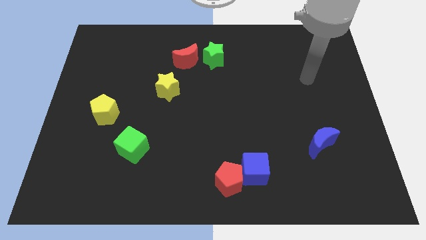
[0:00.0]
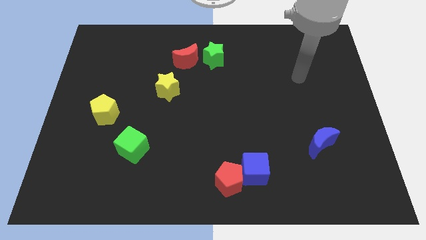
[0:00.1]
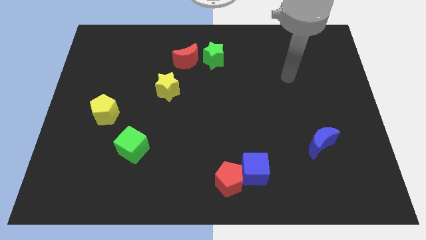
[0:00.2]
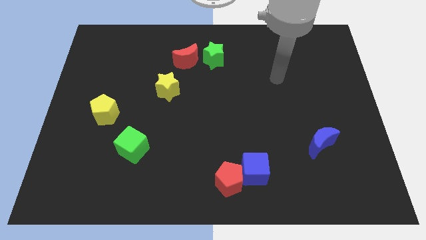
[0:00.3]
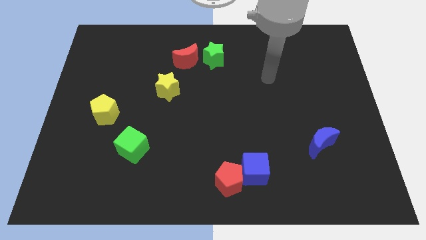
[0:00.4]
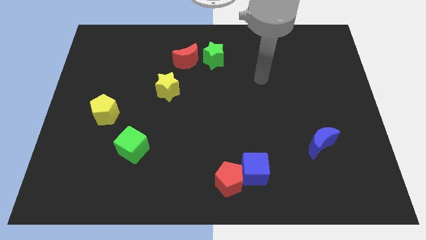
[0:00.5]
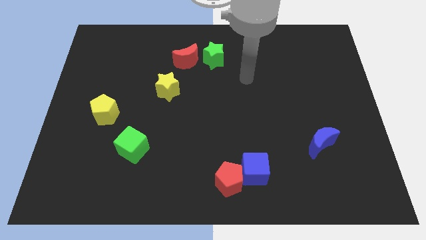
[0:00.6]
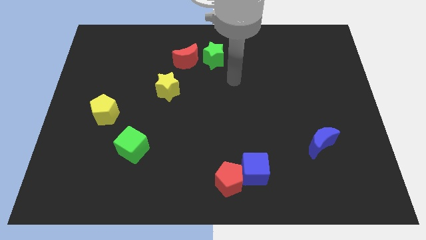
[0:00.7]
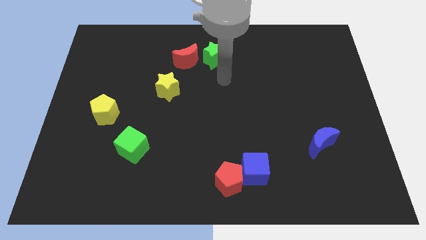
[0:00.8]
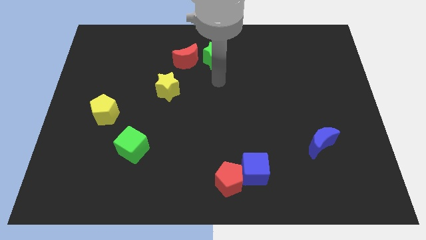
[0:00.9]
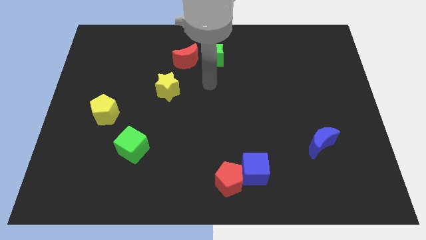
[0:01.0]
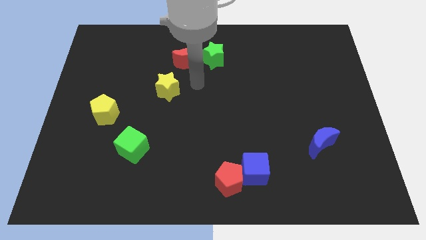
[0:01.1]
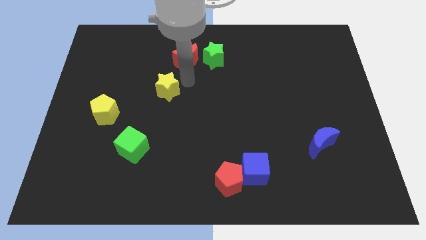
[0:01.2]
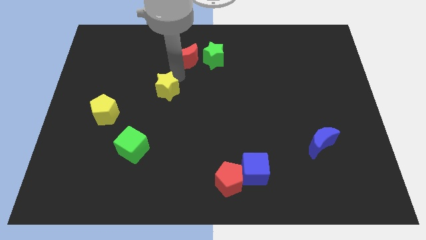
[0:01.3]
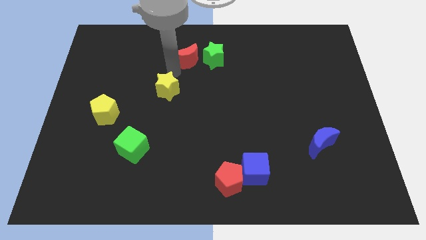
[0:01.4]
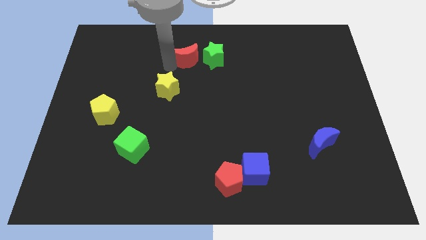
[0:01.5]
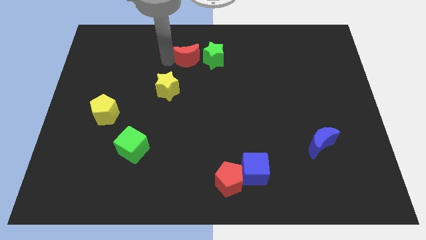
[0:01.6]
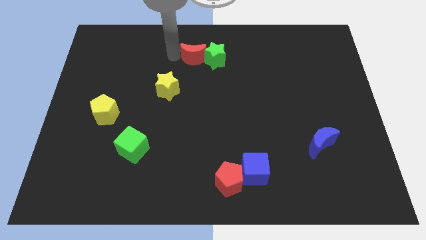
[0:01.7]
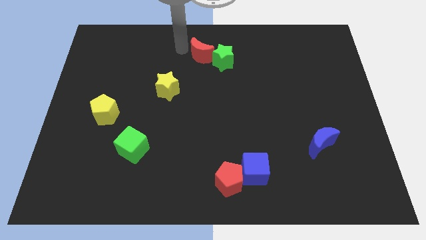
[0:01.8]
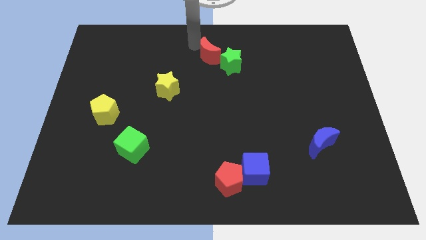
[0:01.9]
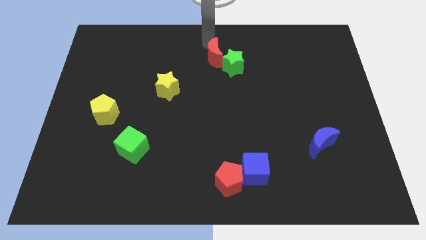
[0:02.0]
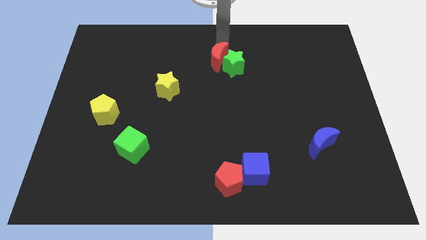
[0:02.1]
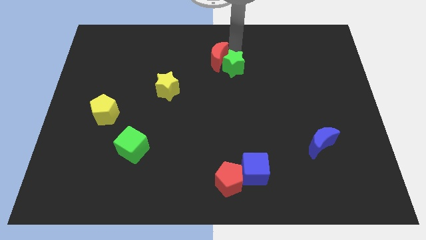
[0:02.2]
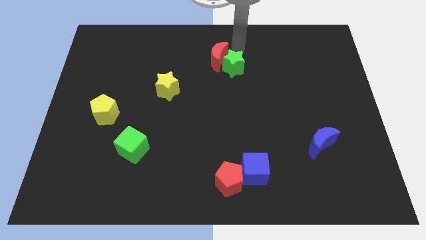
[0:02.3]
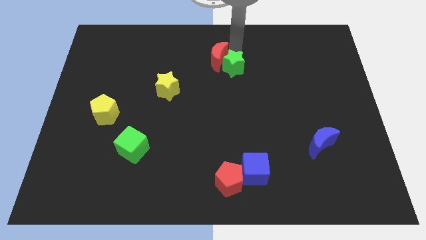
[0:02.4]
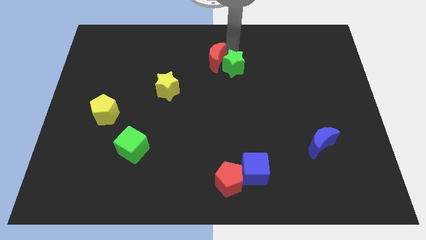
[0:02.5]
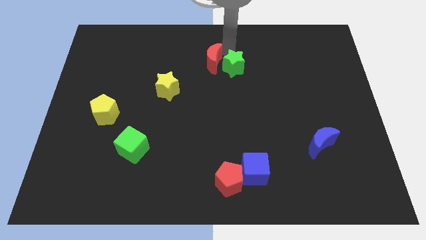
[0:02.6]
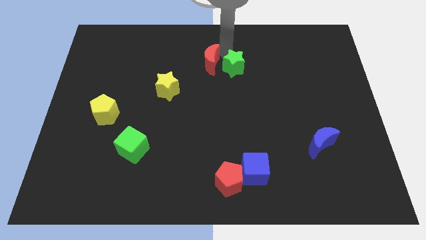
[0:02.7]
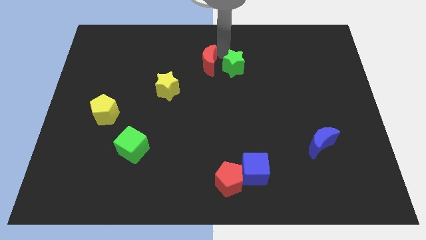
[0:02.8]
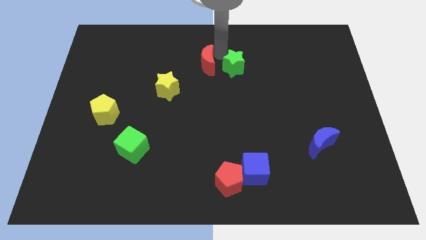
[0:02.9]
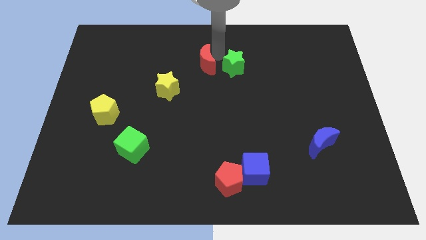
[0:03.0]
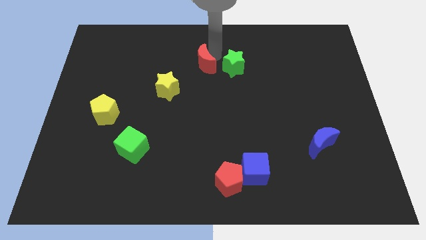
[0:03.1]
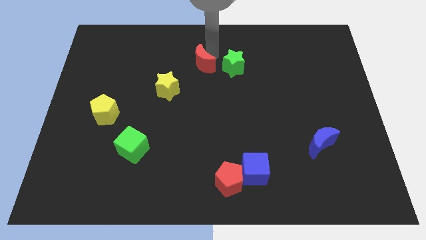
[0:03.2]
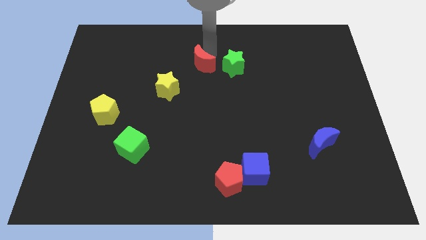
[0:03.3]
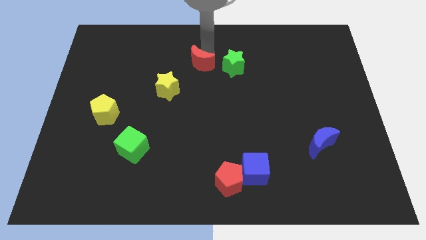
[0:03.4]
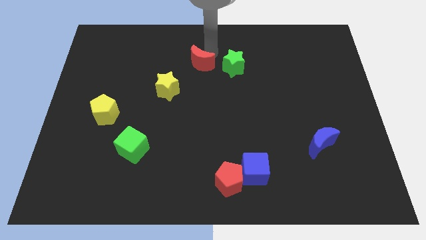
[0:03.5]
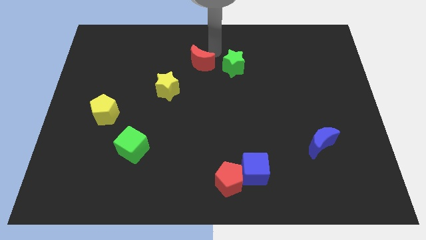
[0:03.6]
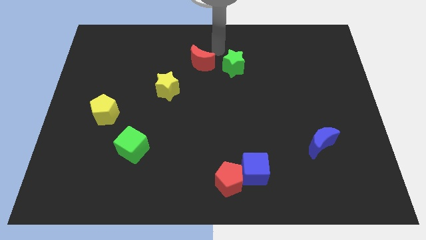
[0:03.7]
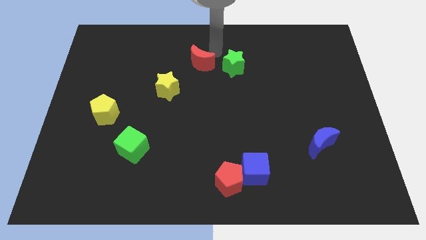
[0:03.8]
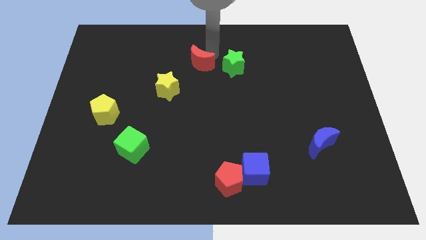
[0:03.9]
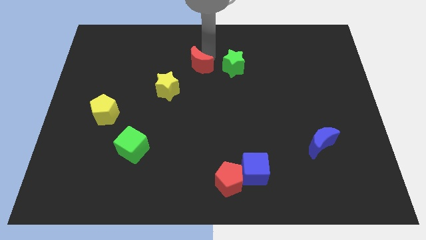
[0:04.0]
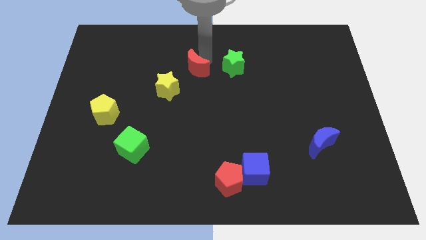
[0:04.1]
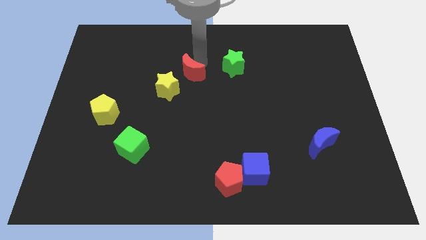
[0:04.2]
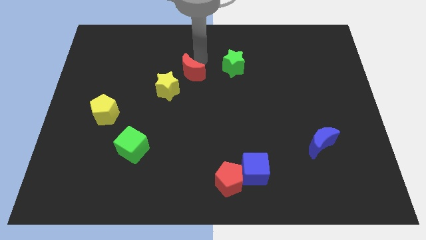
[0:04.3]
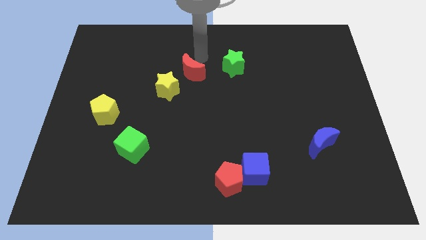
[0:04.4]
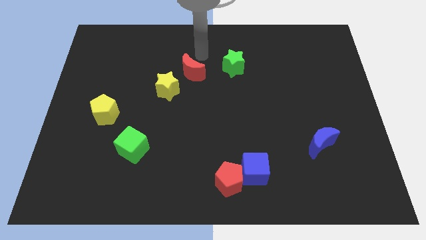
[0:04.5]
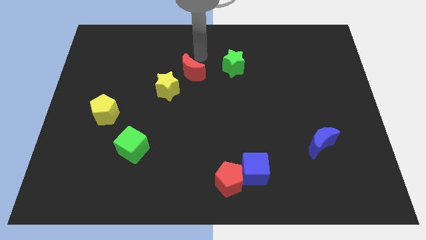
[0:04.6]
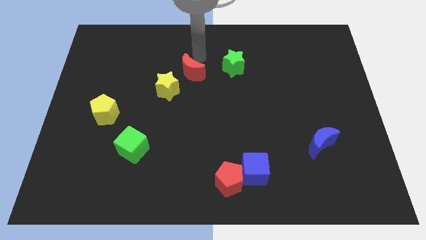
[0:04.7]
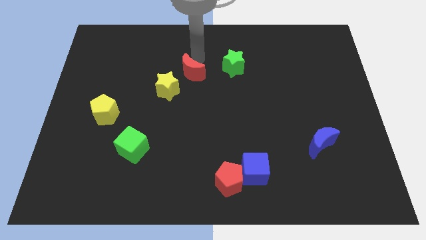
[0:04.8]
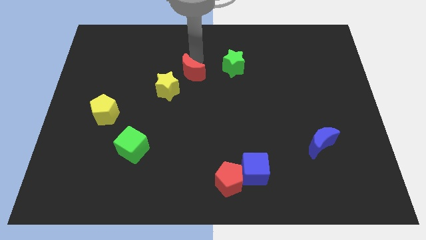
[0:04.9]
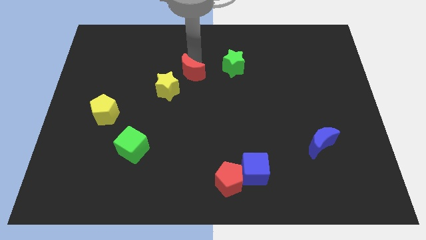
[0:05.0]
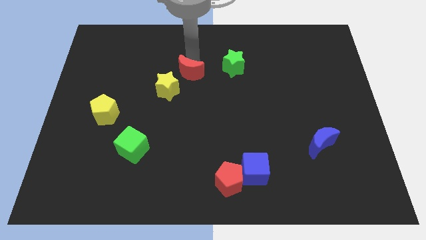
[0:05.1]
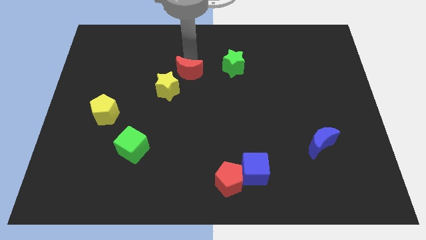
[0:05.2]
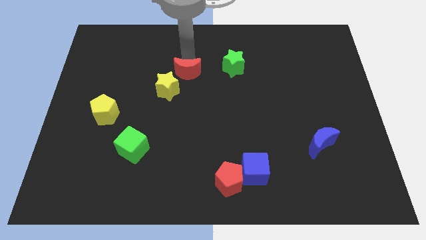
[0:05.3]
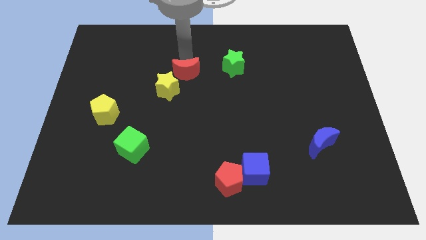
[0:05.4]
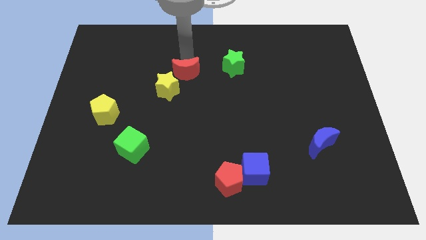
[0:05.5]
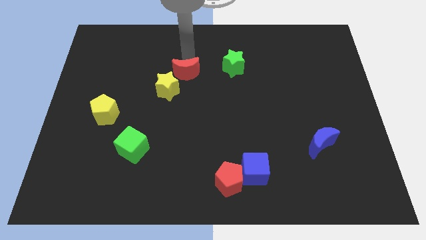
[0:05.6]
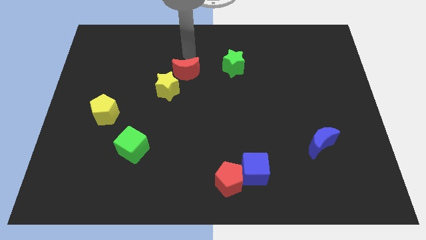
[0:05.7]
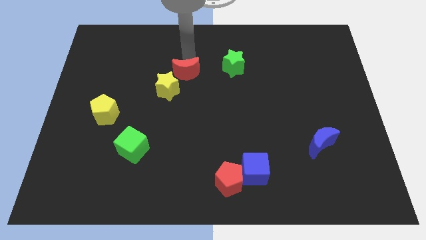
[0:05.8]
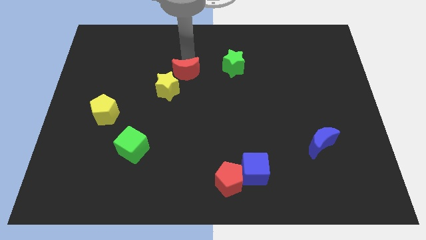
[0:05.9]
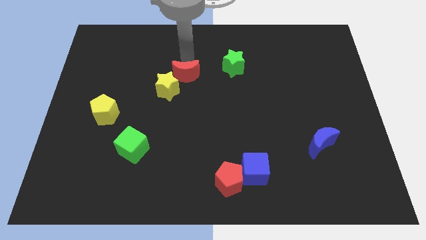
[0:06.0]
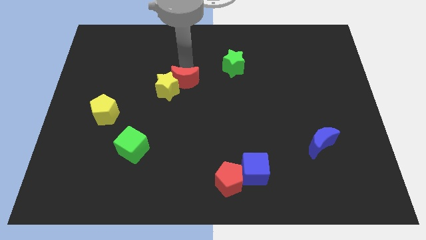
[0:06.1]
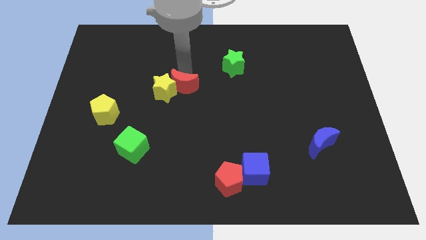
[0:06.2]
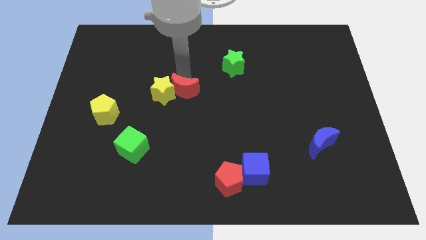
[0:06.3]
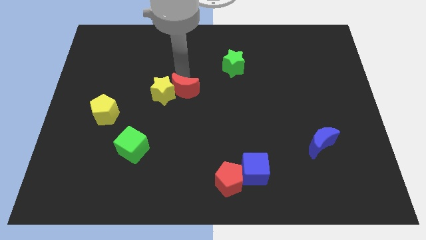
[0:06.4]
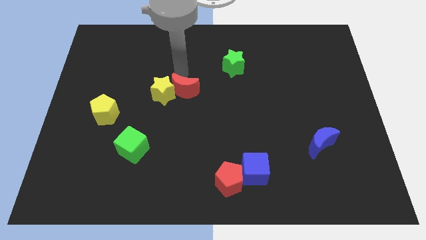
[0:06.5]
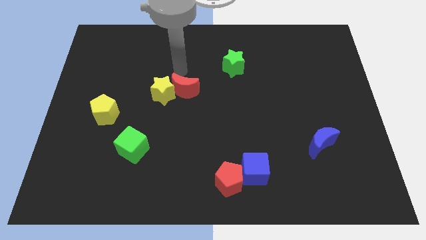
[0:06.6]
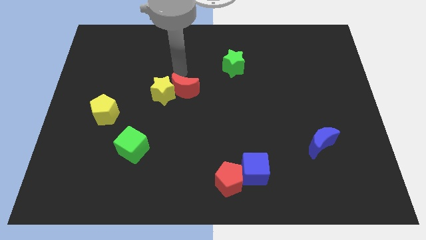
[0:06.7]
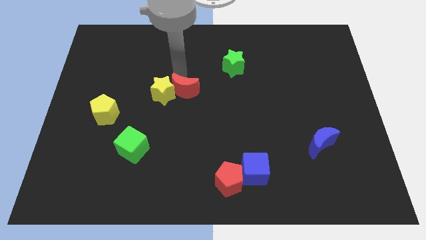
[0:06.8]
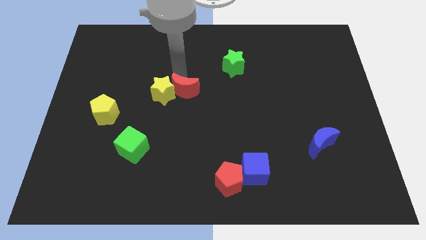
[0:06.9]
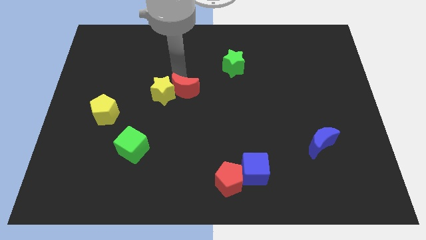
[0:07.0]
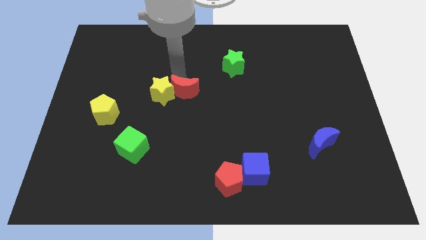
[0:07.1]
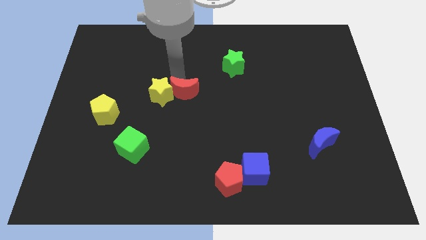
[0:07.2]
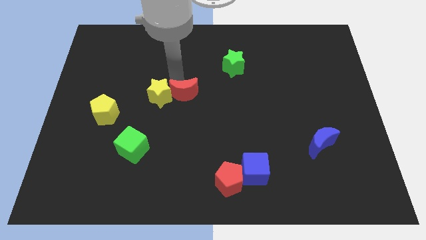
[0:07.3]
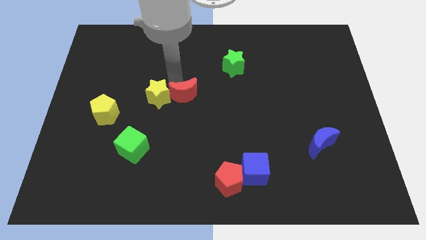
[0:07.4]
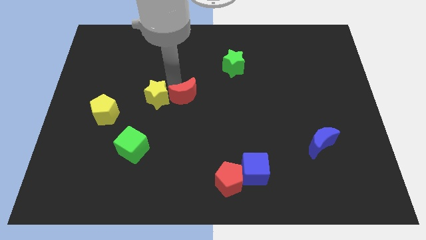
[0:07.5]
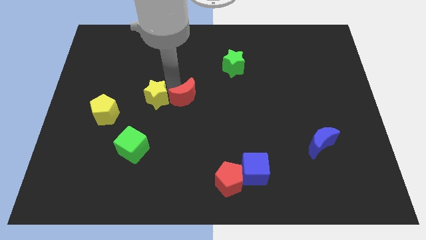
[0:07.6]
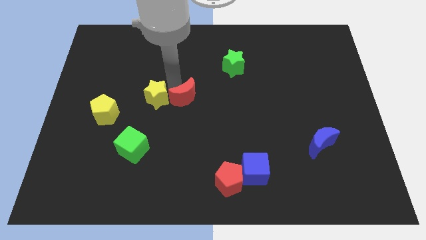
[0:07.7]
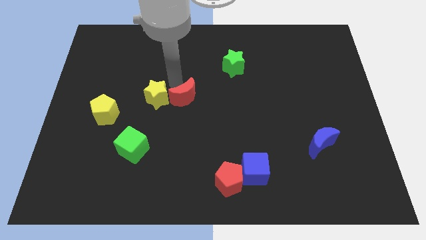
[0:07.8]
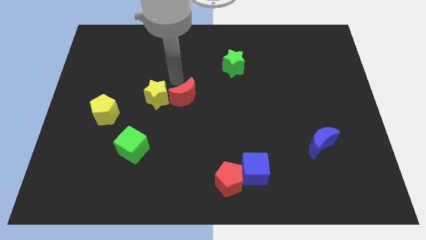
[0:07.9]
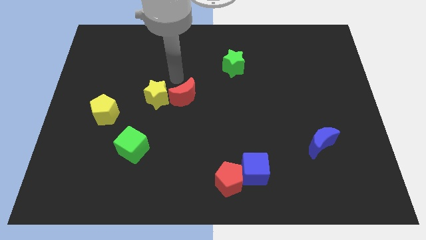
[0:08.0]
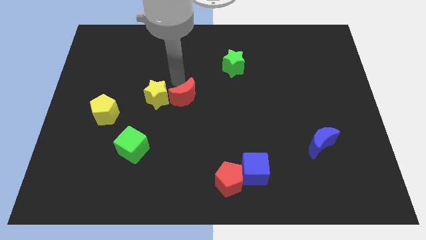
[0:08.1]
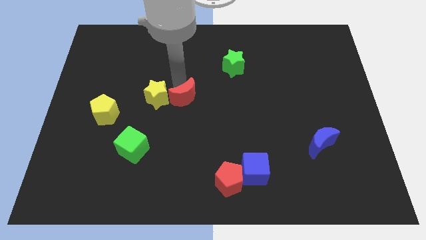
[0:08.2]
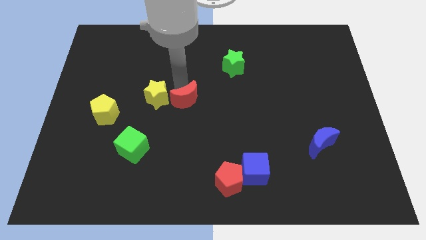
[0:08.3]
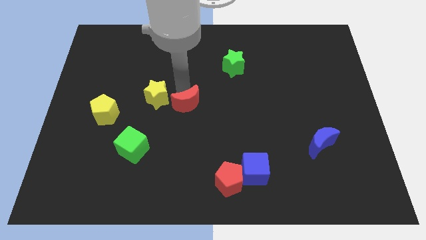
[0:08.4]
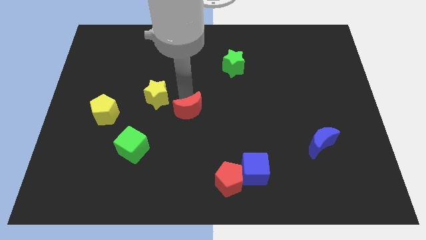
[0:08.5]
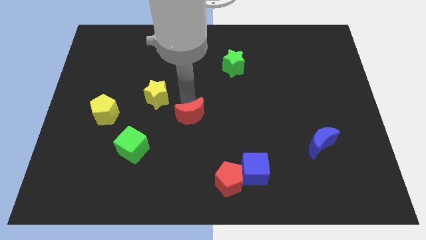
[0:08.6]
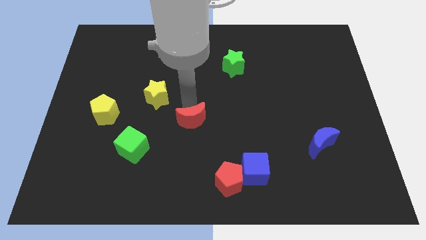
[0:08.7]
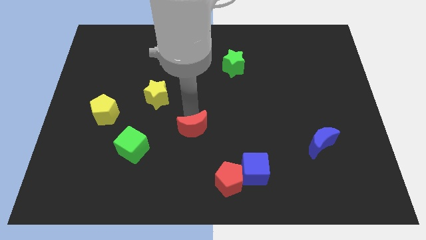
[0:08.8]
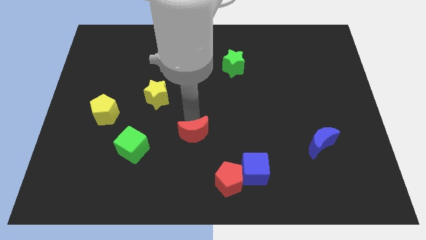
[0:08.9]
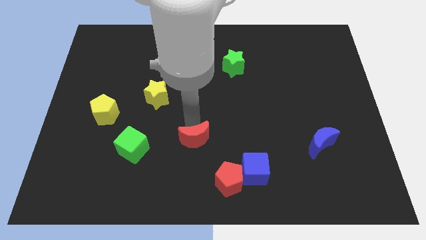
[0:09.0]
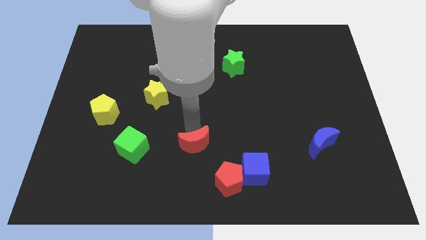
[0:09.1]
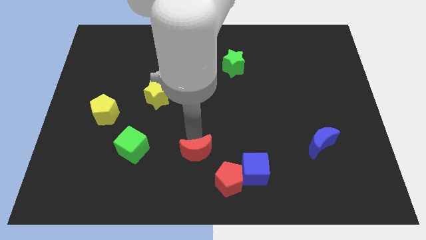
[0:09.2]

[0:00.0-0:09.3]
put the red moon left of the blue cube
